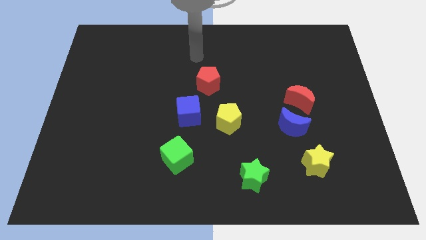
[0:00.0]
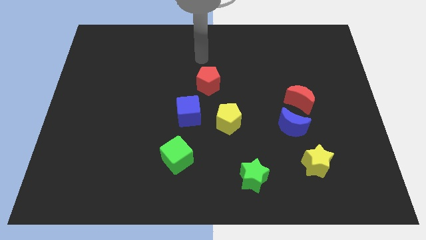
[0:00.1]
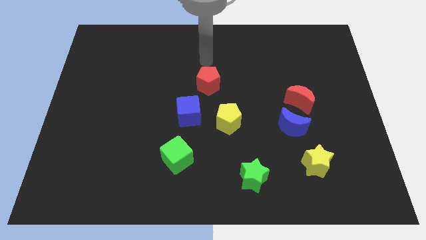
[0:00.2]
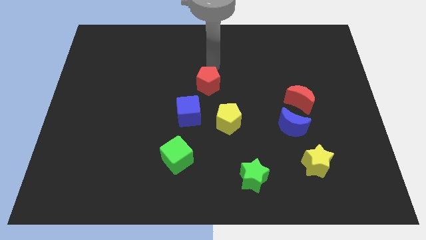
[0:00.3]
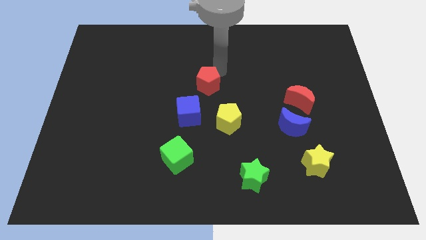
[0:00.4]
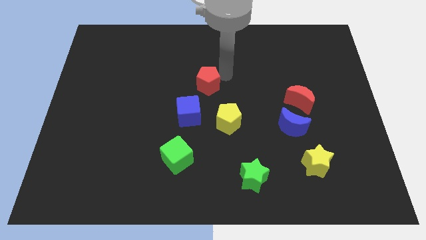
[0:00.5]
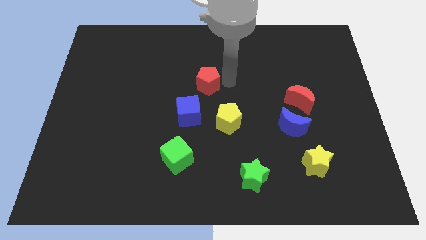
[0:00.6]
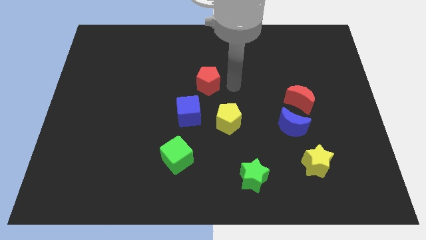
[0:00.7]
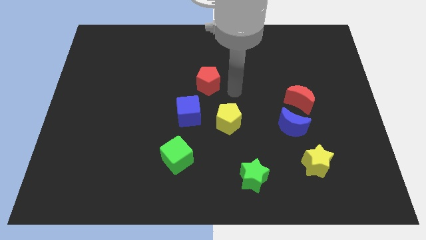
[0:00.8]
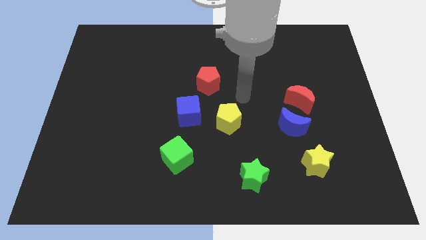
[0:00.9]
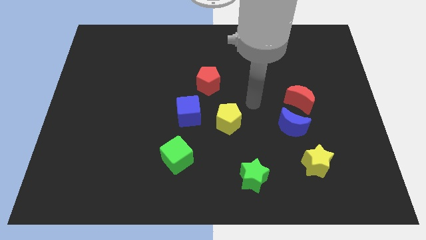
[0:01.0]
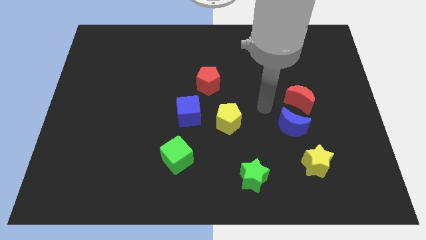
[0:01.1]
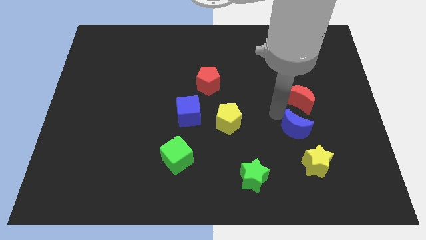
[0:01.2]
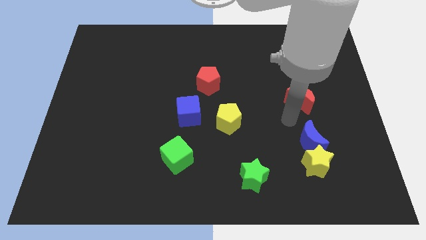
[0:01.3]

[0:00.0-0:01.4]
separate the red moon from the blue moon

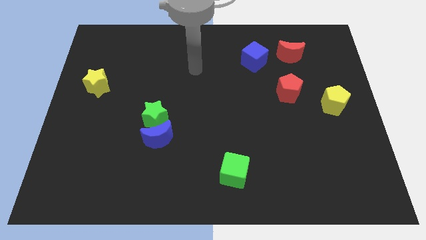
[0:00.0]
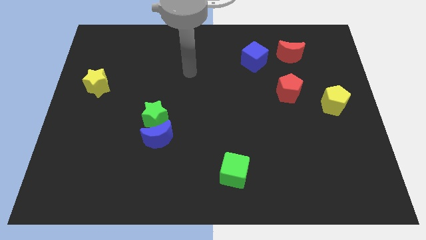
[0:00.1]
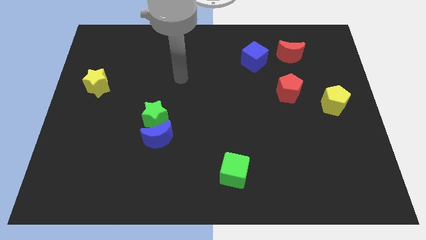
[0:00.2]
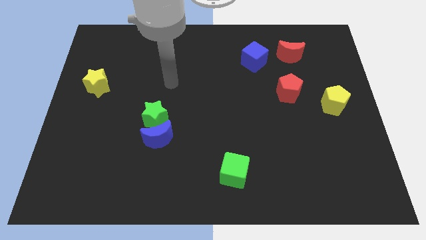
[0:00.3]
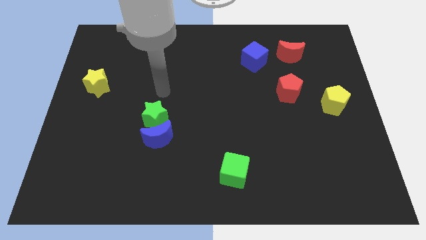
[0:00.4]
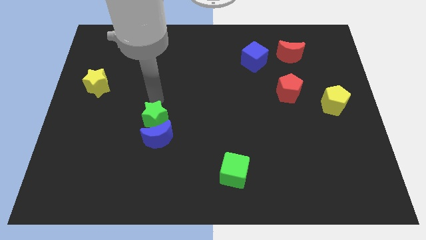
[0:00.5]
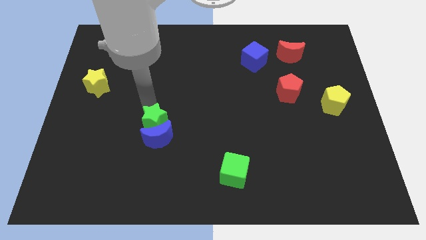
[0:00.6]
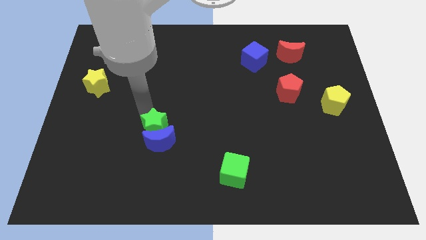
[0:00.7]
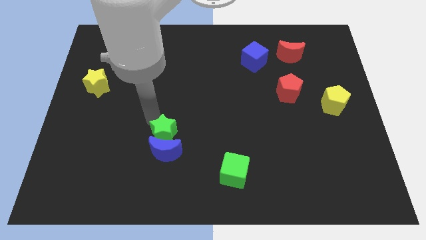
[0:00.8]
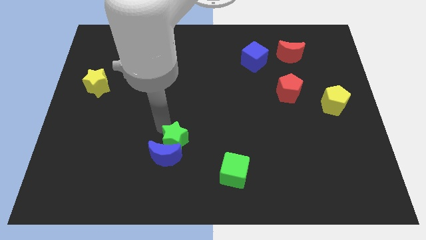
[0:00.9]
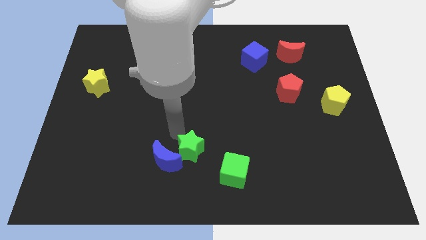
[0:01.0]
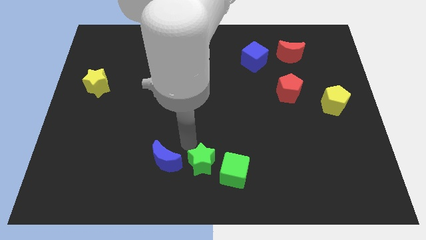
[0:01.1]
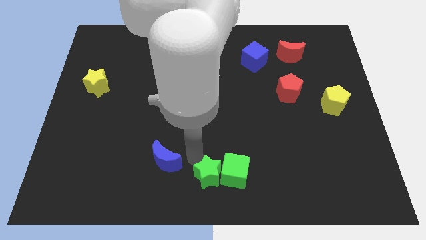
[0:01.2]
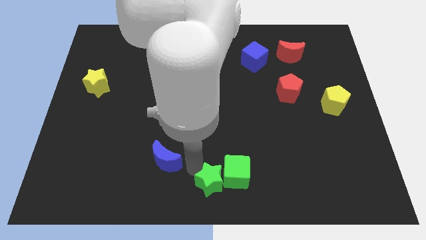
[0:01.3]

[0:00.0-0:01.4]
pull the blue moon apart from the green star

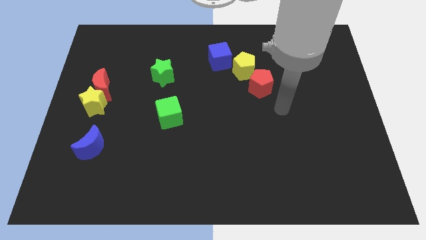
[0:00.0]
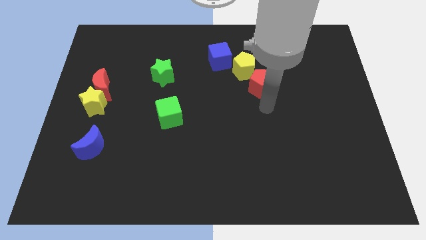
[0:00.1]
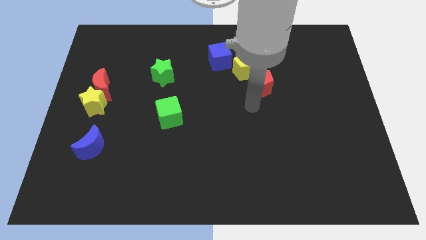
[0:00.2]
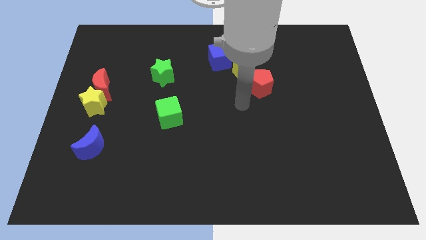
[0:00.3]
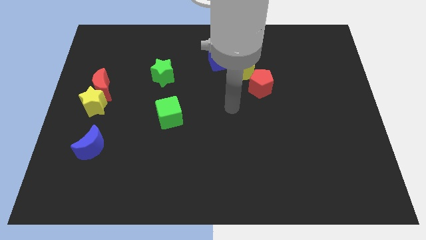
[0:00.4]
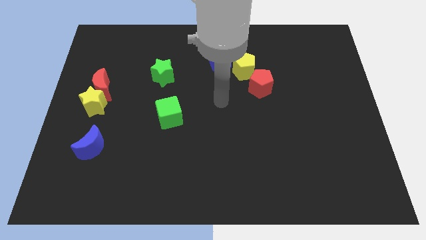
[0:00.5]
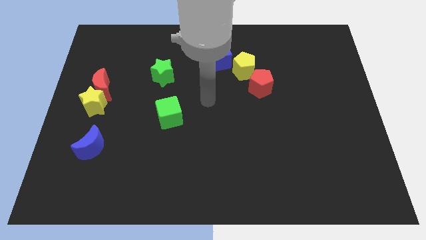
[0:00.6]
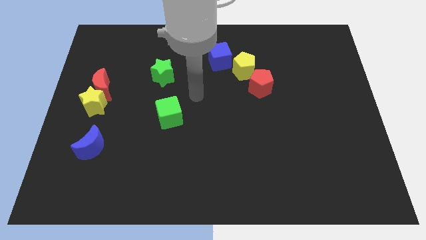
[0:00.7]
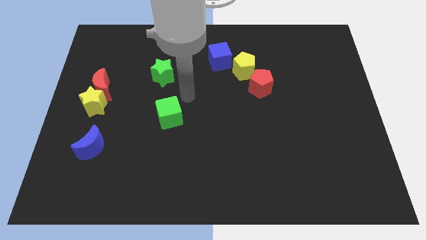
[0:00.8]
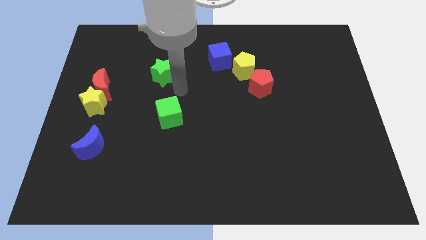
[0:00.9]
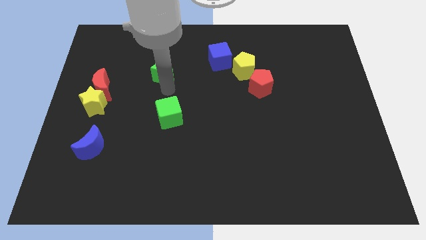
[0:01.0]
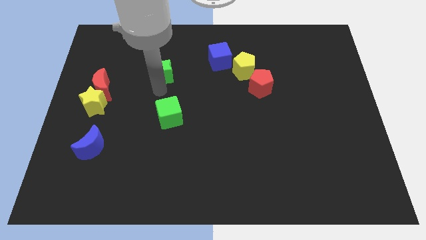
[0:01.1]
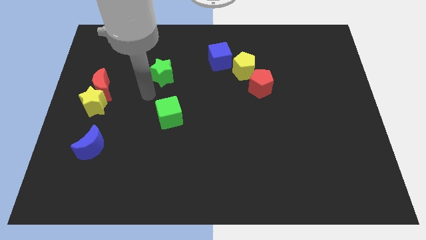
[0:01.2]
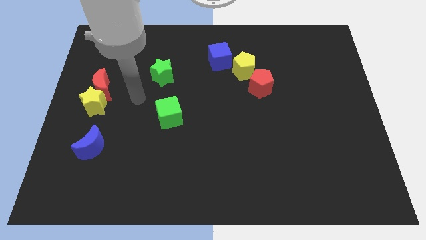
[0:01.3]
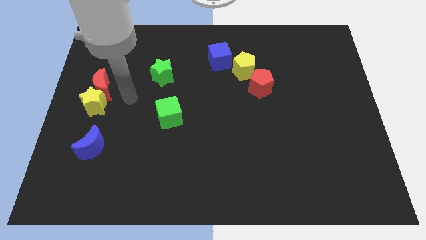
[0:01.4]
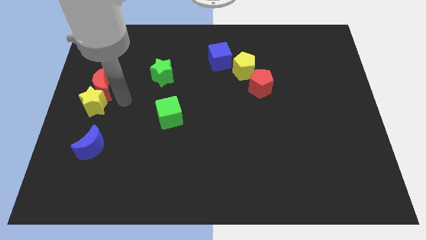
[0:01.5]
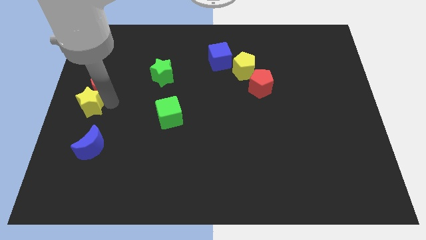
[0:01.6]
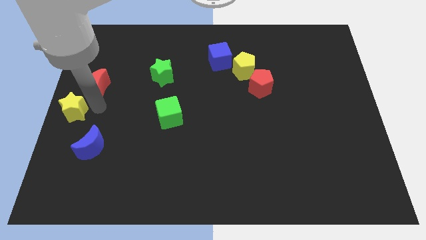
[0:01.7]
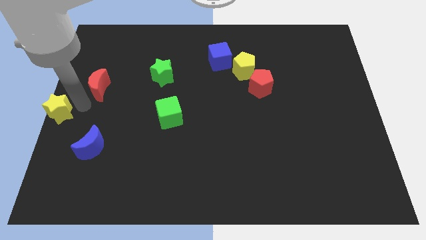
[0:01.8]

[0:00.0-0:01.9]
move the red moon away from the yellow star

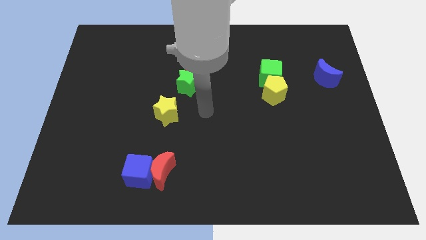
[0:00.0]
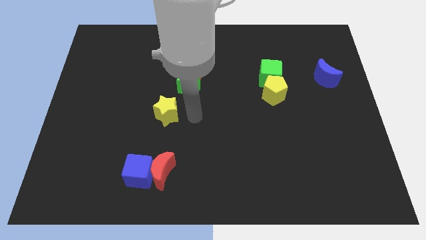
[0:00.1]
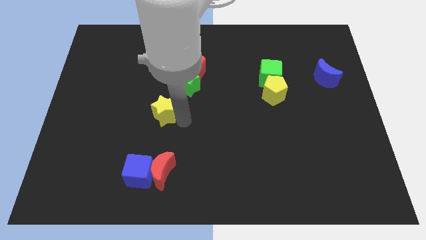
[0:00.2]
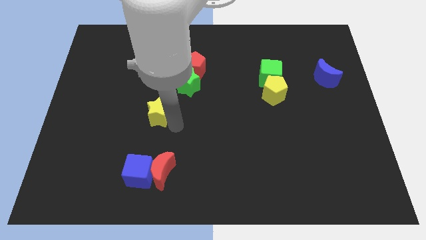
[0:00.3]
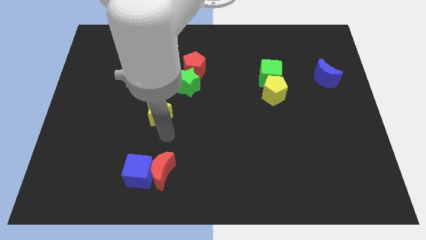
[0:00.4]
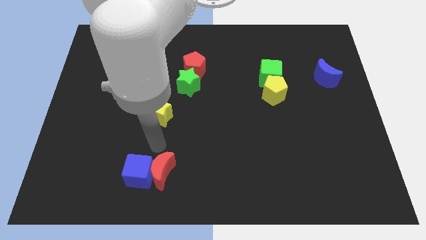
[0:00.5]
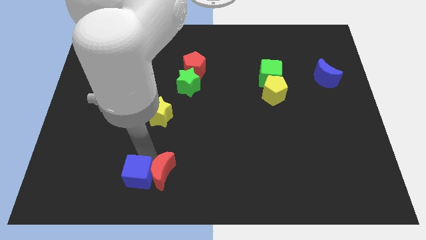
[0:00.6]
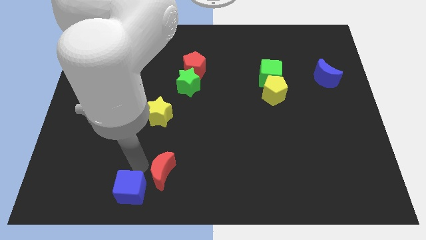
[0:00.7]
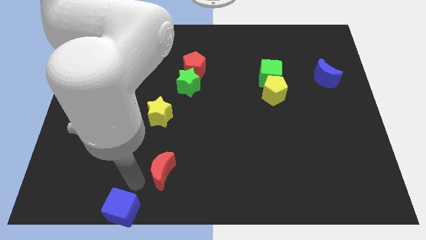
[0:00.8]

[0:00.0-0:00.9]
move the red moon away from the blue cube

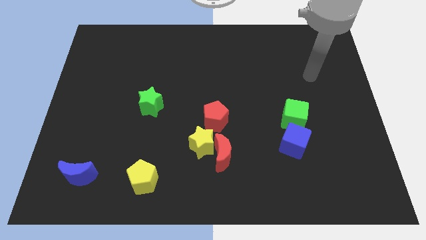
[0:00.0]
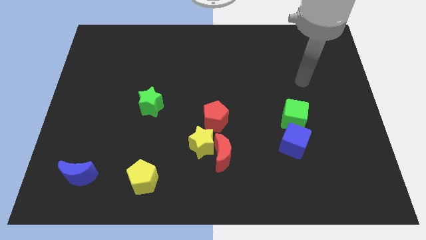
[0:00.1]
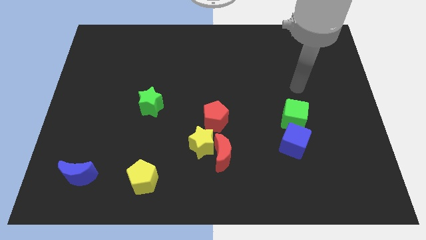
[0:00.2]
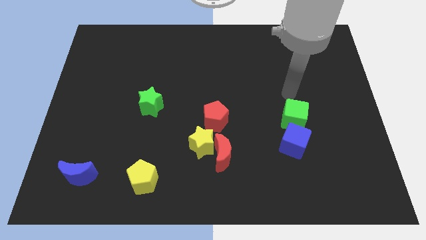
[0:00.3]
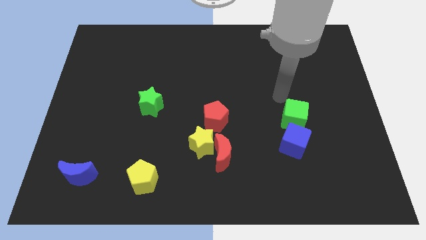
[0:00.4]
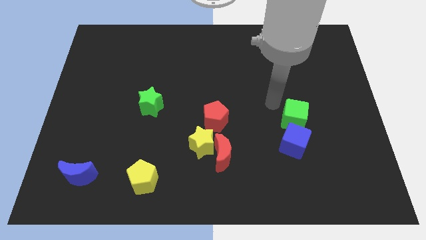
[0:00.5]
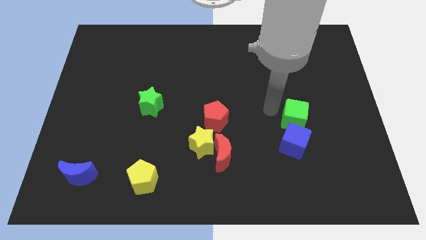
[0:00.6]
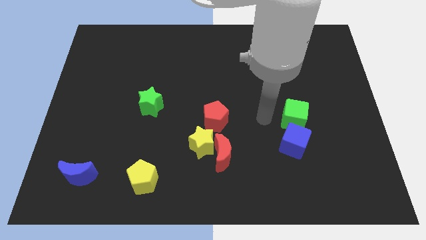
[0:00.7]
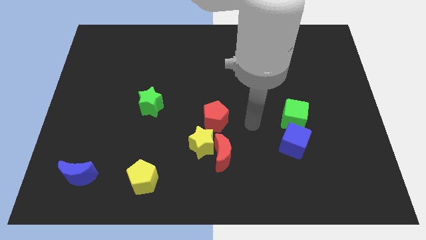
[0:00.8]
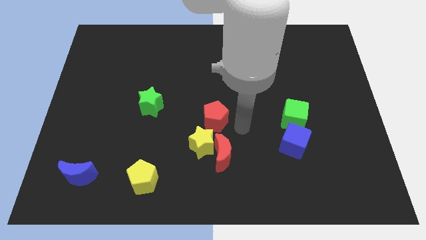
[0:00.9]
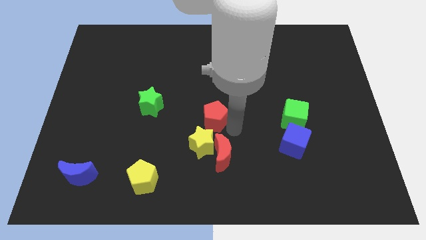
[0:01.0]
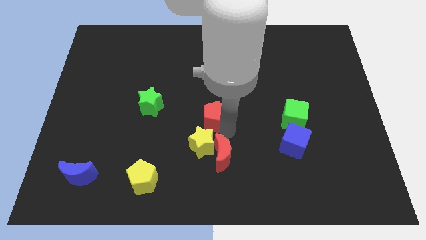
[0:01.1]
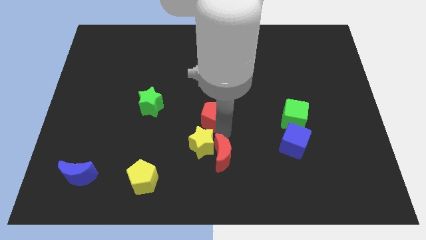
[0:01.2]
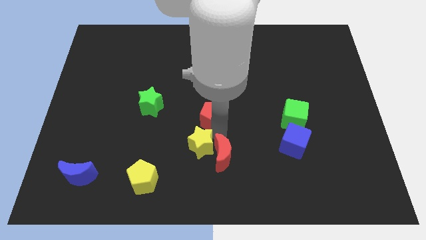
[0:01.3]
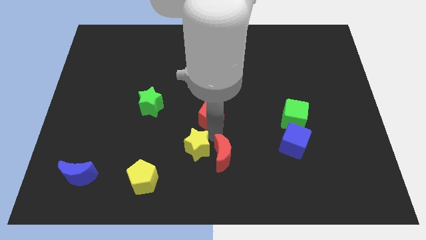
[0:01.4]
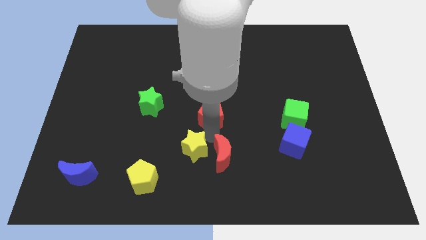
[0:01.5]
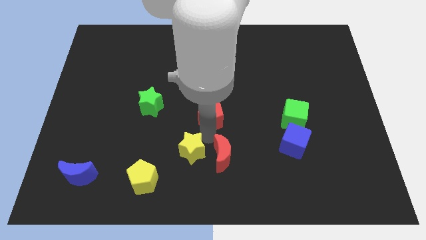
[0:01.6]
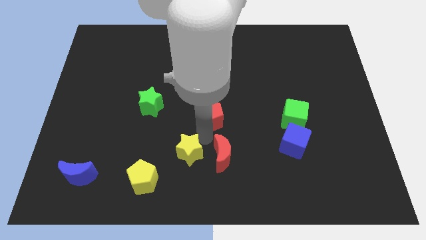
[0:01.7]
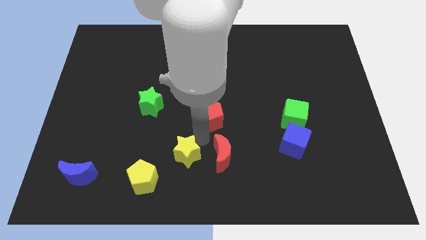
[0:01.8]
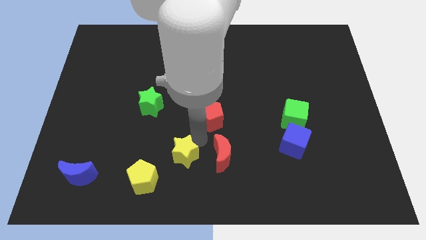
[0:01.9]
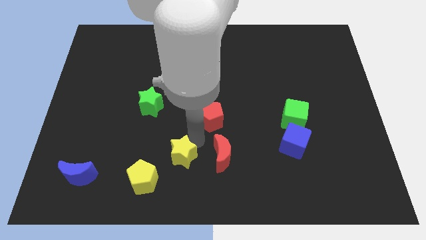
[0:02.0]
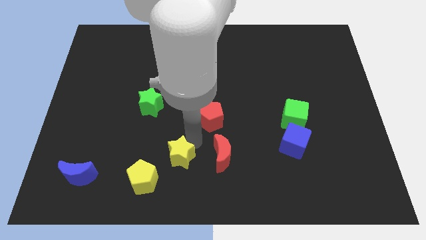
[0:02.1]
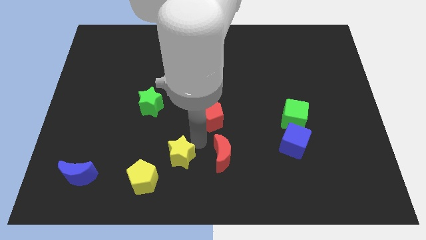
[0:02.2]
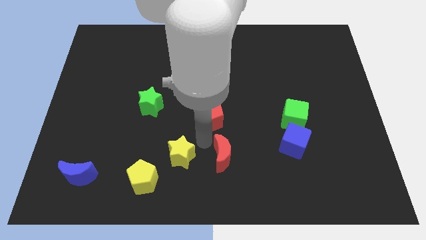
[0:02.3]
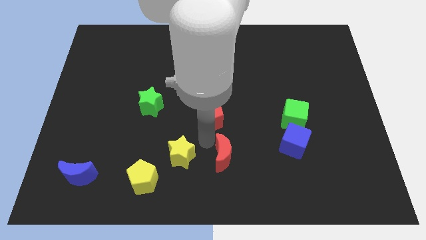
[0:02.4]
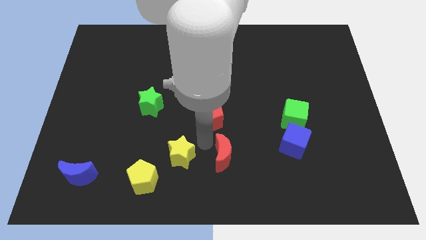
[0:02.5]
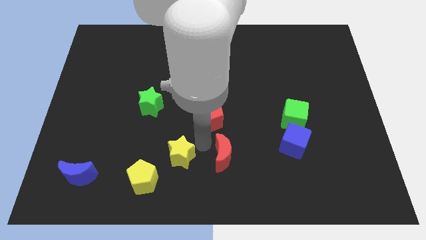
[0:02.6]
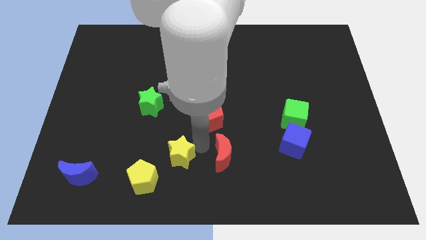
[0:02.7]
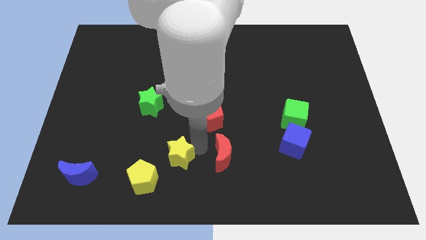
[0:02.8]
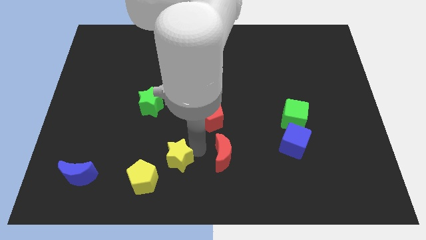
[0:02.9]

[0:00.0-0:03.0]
pull the yellow star apart from the red moon and red pentagon

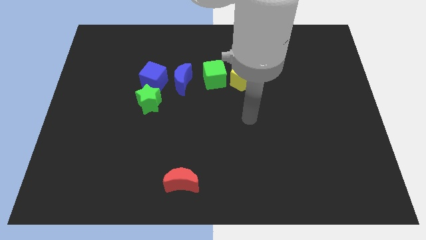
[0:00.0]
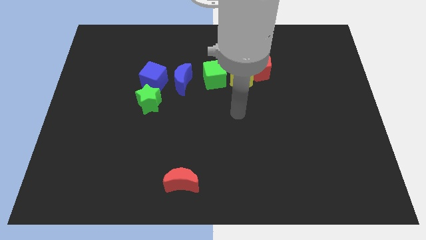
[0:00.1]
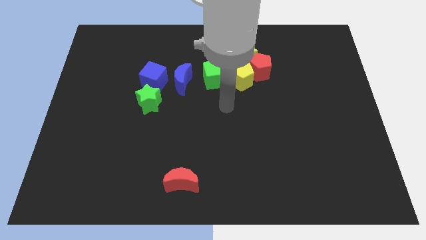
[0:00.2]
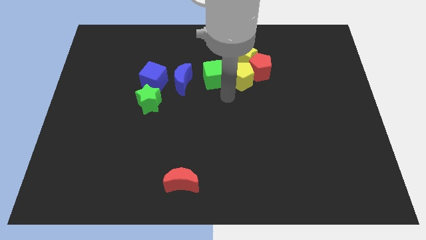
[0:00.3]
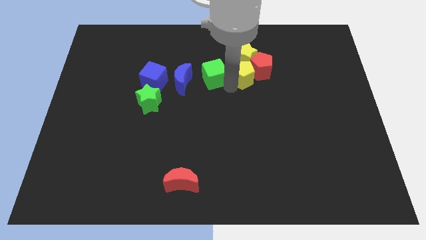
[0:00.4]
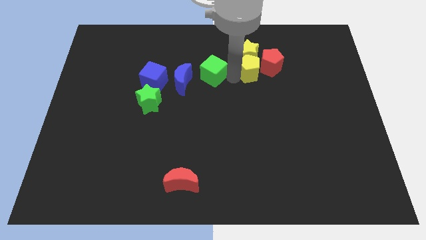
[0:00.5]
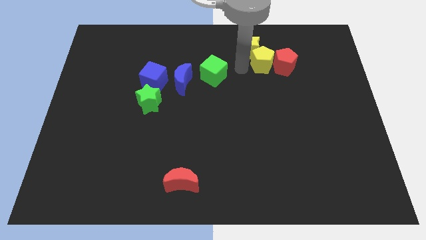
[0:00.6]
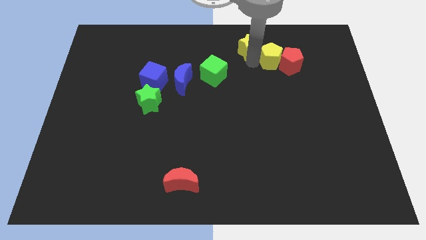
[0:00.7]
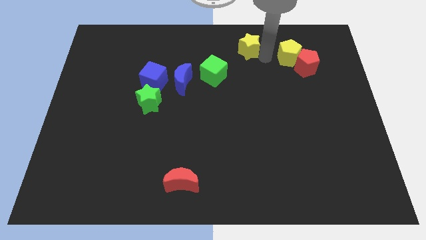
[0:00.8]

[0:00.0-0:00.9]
pull the red pentagon apart from the yellow star and yellow pentagon
